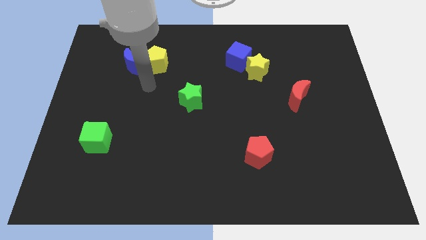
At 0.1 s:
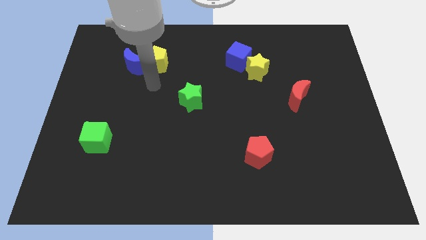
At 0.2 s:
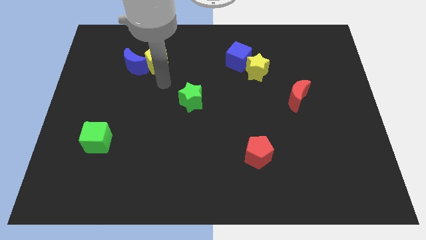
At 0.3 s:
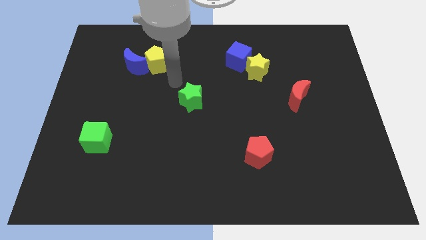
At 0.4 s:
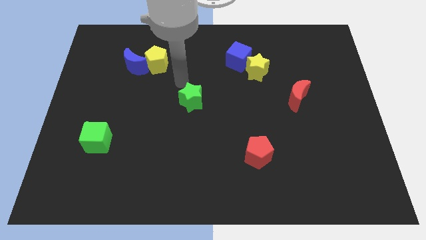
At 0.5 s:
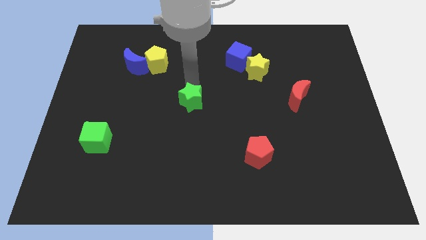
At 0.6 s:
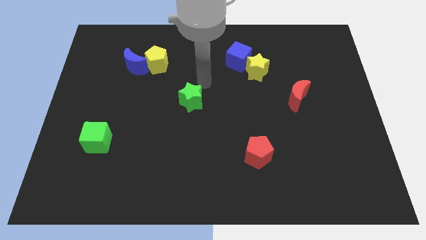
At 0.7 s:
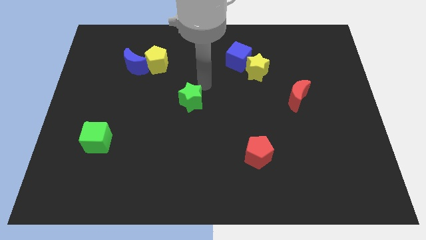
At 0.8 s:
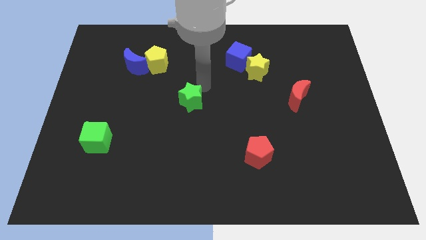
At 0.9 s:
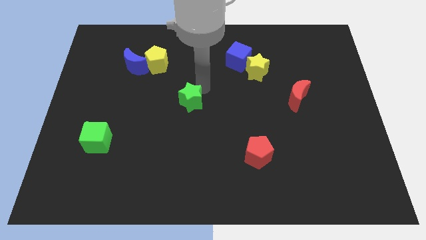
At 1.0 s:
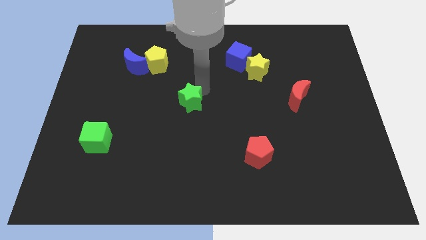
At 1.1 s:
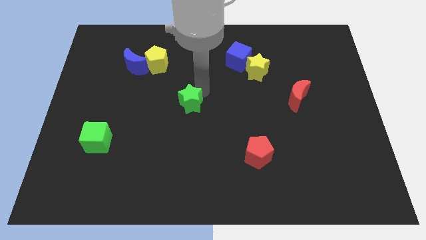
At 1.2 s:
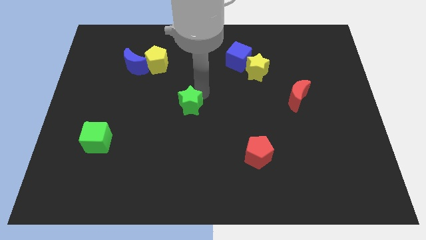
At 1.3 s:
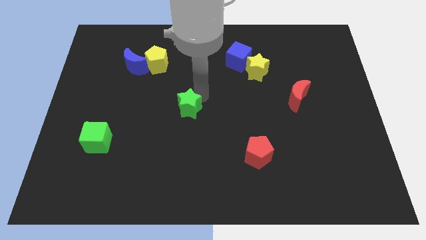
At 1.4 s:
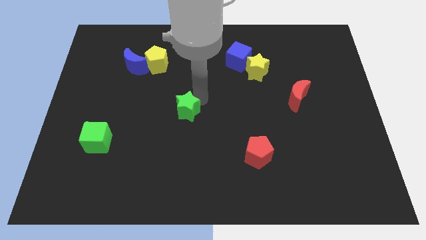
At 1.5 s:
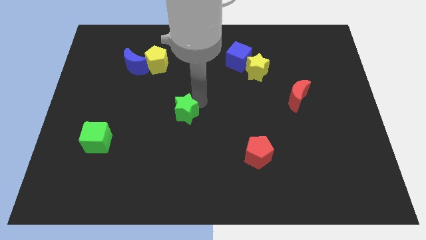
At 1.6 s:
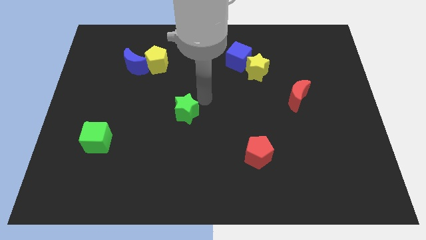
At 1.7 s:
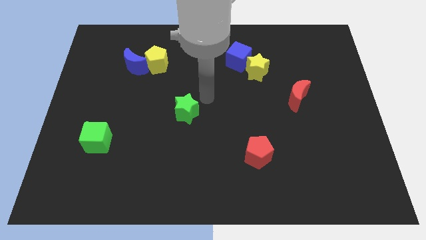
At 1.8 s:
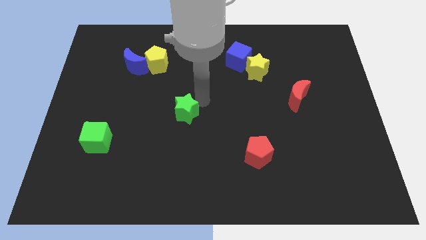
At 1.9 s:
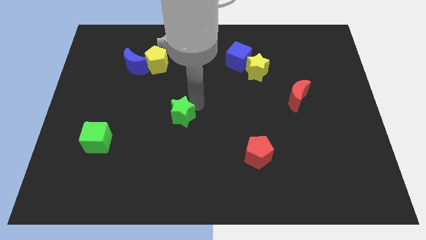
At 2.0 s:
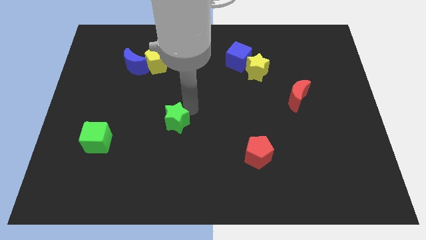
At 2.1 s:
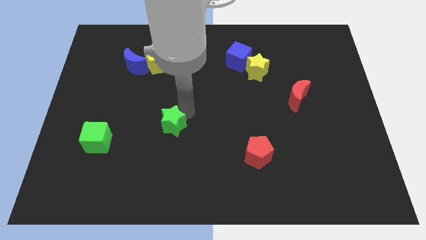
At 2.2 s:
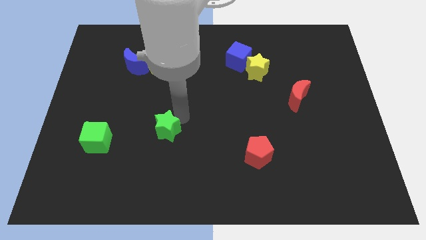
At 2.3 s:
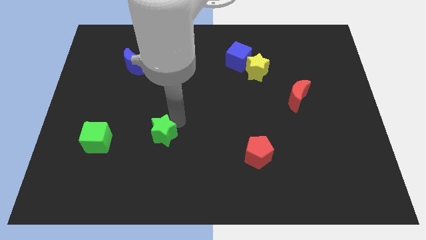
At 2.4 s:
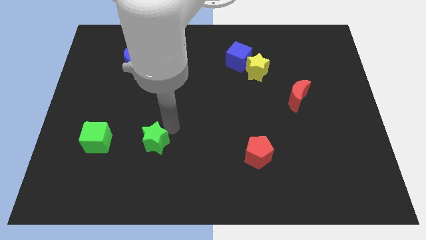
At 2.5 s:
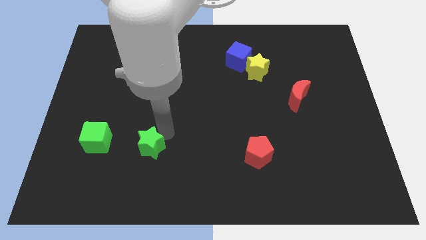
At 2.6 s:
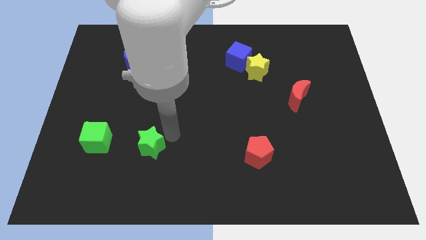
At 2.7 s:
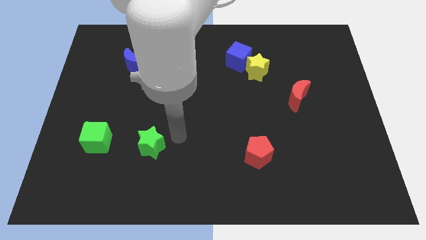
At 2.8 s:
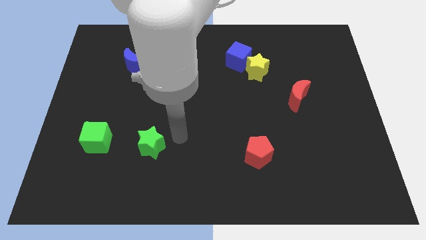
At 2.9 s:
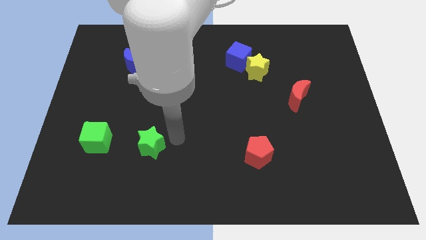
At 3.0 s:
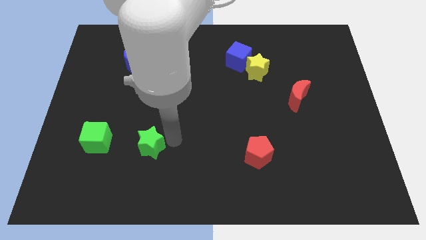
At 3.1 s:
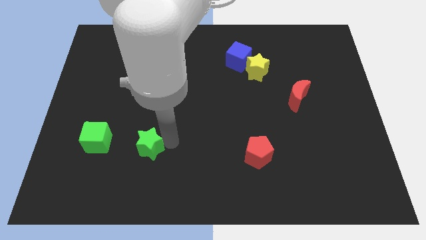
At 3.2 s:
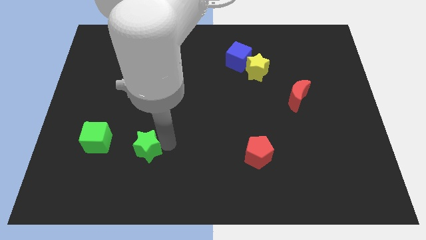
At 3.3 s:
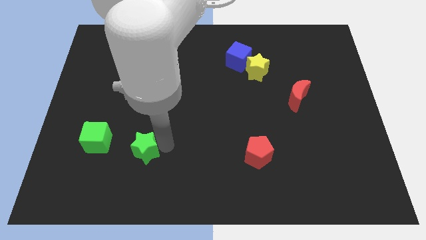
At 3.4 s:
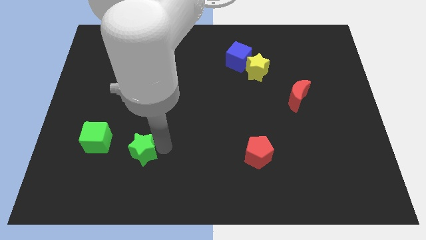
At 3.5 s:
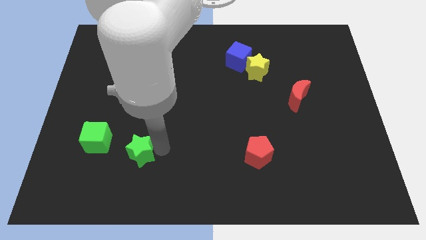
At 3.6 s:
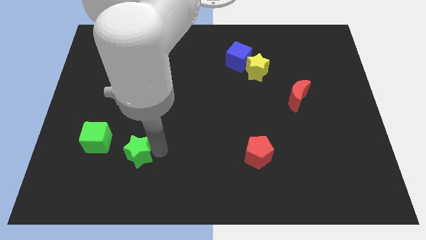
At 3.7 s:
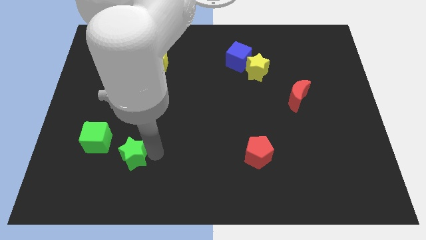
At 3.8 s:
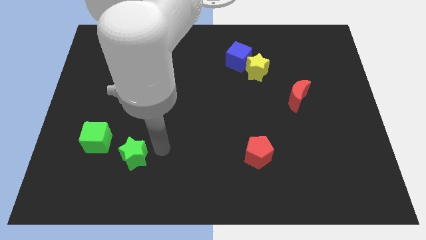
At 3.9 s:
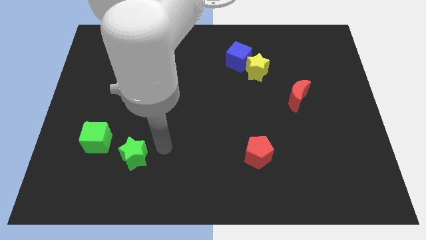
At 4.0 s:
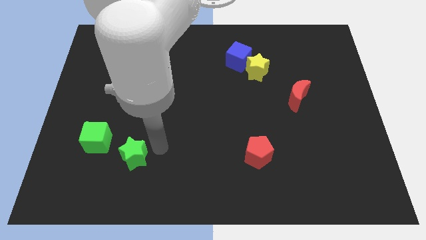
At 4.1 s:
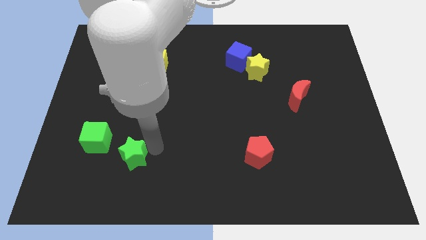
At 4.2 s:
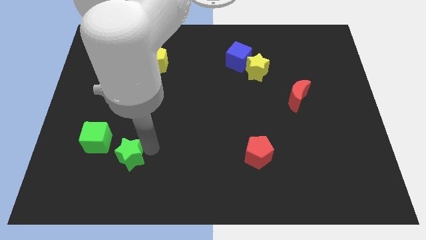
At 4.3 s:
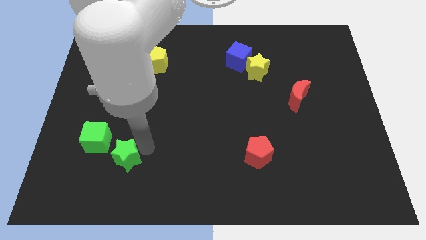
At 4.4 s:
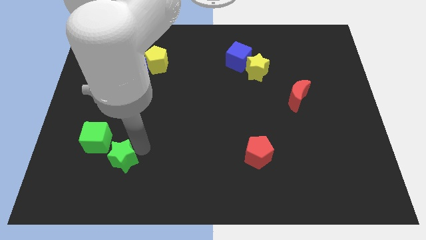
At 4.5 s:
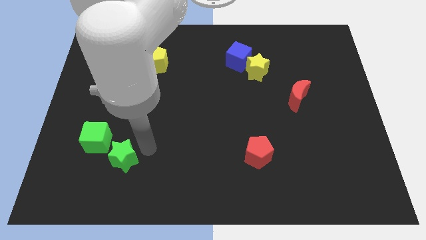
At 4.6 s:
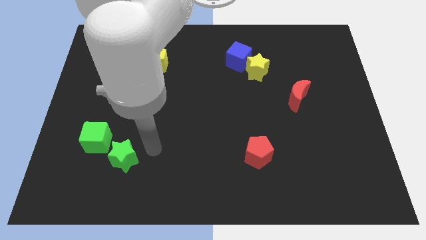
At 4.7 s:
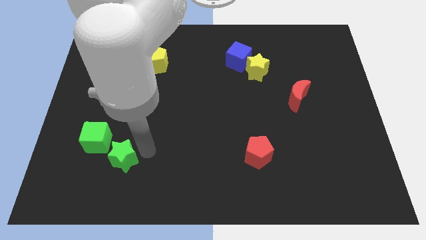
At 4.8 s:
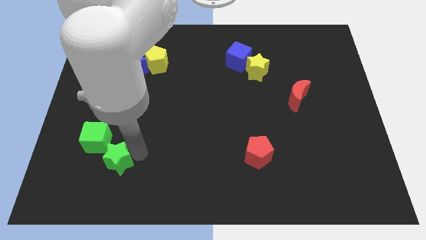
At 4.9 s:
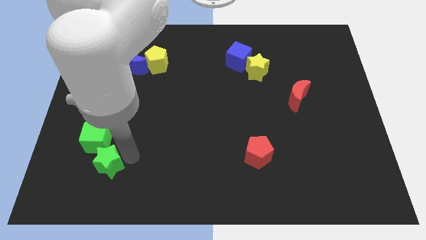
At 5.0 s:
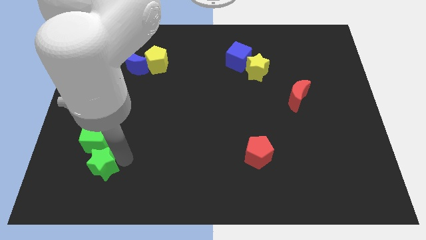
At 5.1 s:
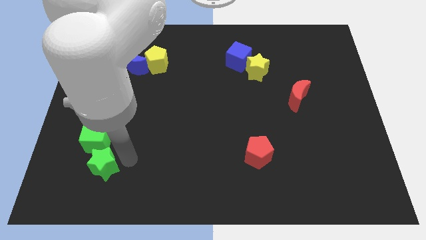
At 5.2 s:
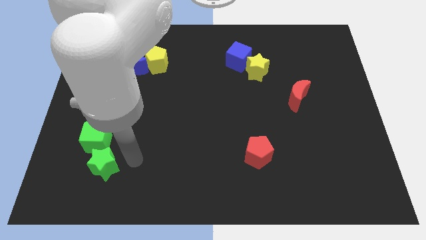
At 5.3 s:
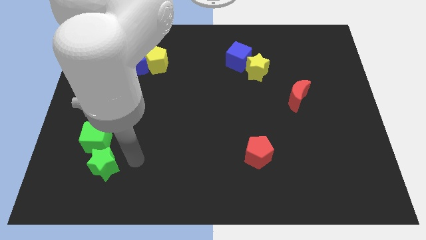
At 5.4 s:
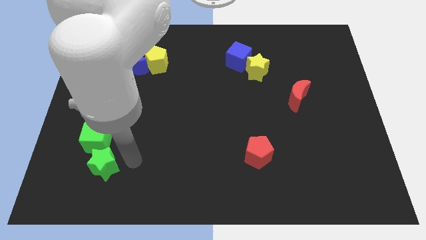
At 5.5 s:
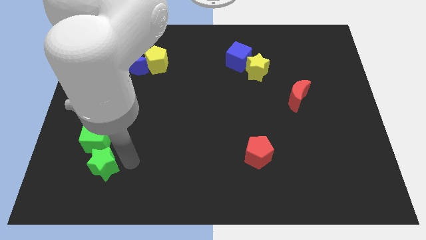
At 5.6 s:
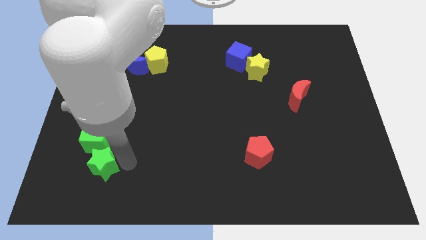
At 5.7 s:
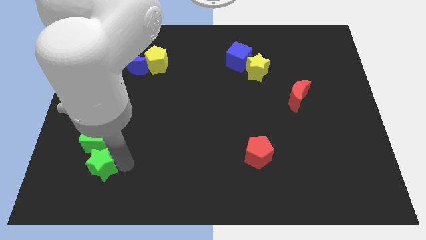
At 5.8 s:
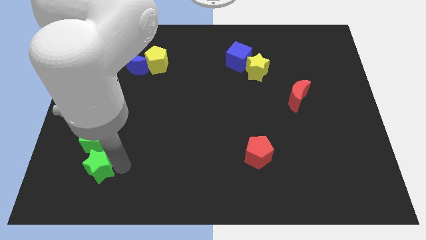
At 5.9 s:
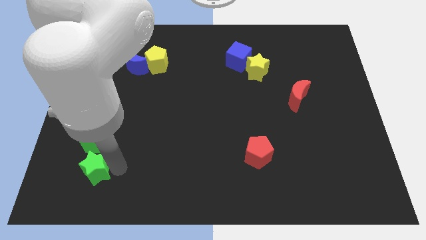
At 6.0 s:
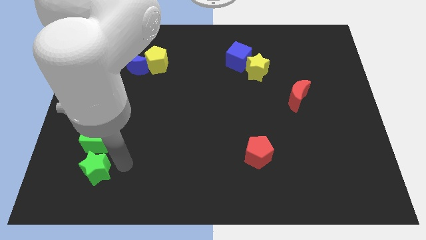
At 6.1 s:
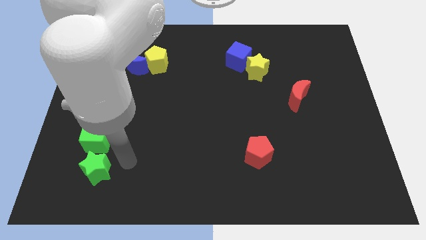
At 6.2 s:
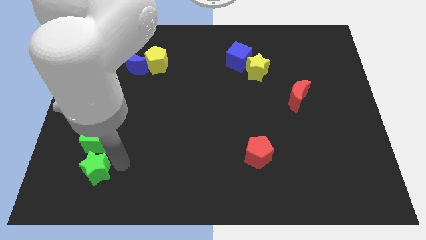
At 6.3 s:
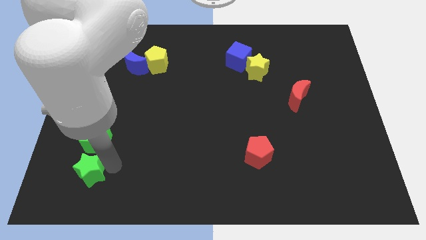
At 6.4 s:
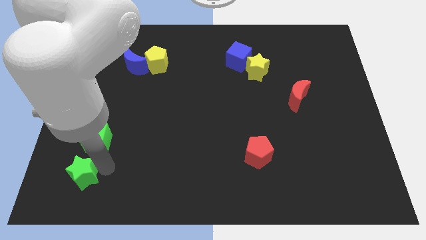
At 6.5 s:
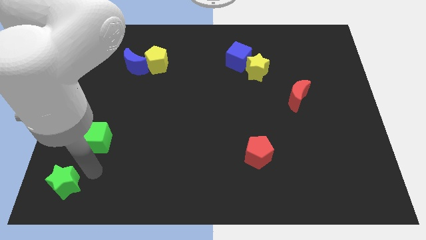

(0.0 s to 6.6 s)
move the green star to the bottom left
